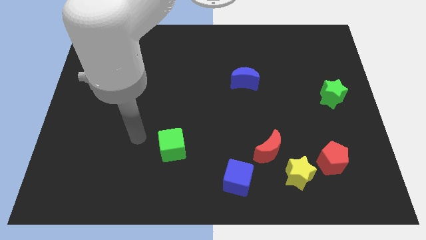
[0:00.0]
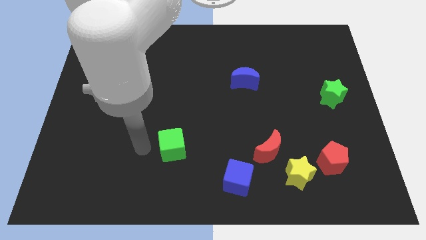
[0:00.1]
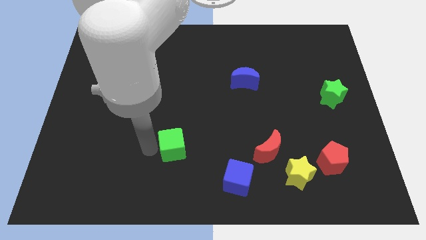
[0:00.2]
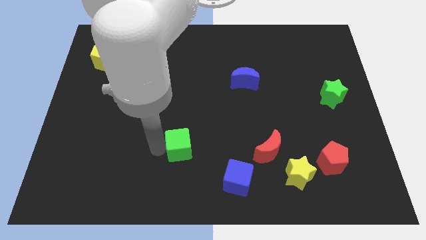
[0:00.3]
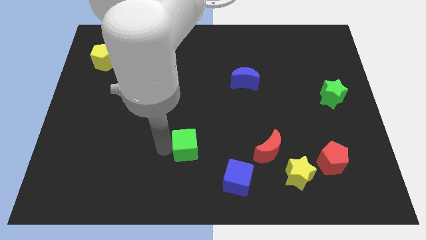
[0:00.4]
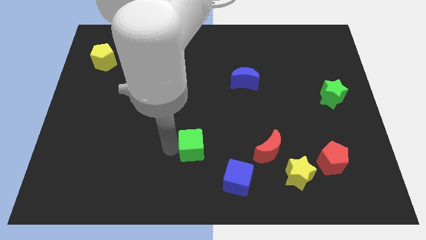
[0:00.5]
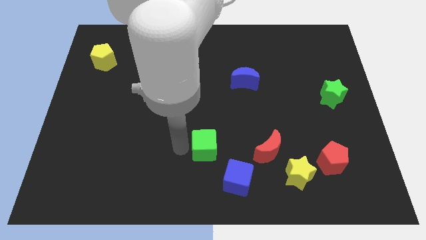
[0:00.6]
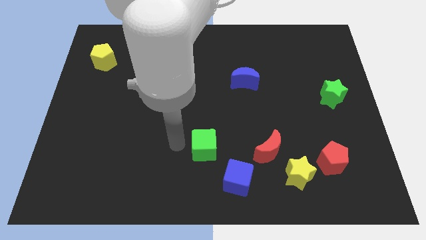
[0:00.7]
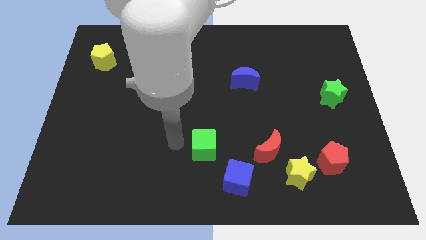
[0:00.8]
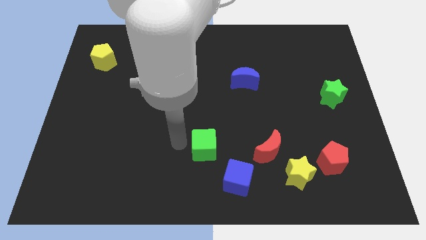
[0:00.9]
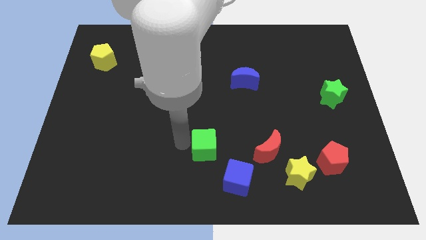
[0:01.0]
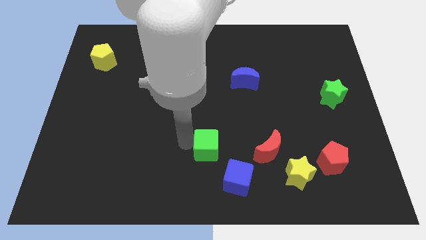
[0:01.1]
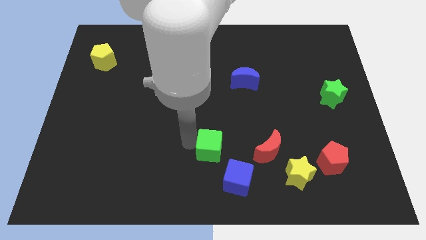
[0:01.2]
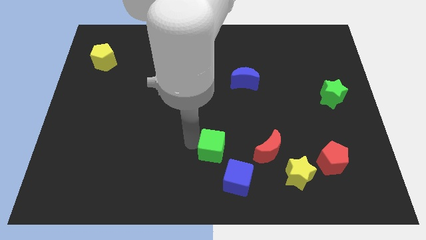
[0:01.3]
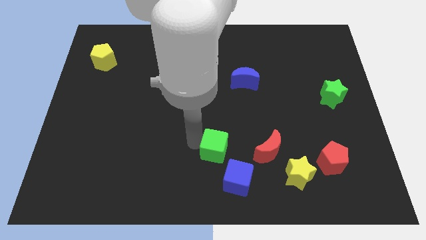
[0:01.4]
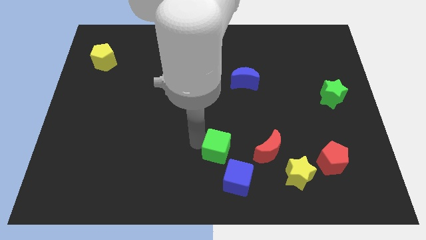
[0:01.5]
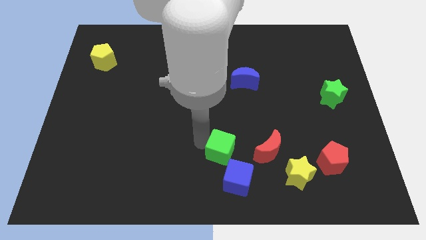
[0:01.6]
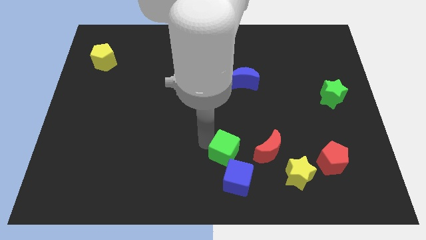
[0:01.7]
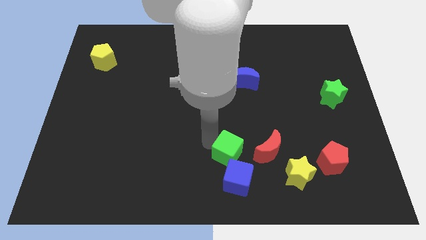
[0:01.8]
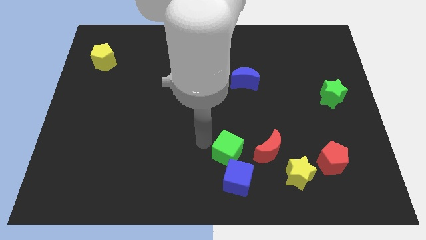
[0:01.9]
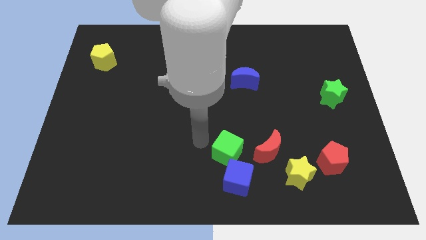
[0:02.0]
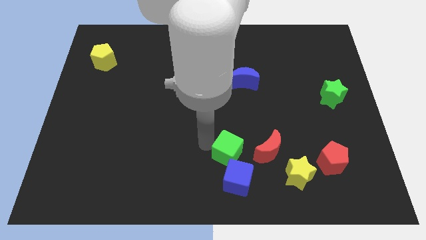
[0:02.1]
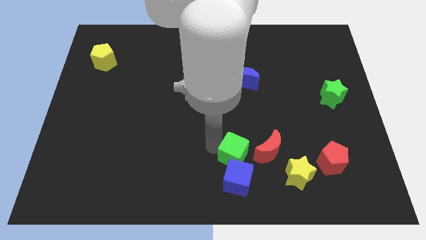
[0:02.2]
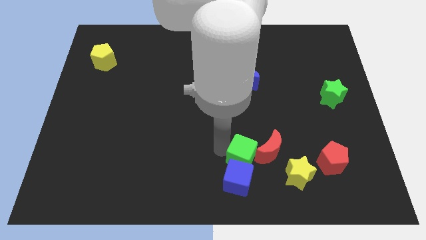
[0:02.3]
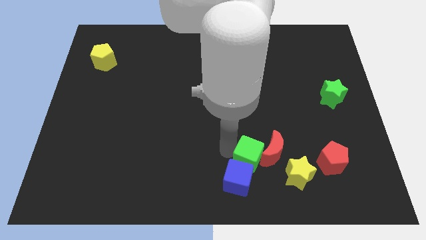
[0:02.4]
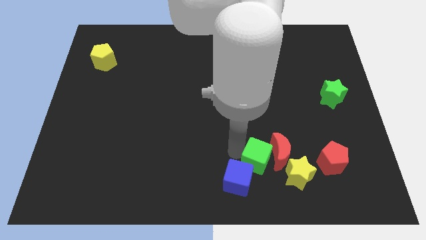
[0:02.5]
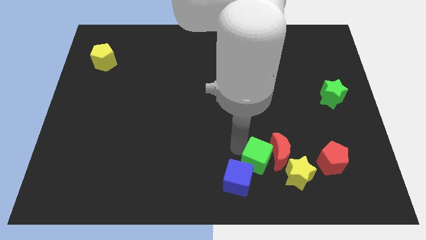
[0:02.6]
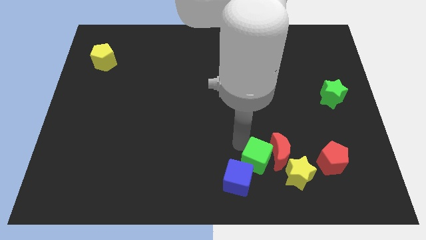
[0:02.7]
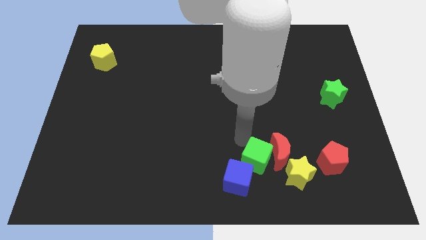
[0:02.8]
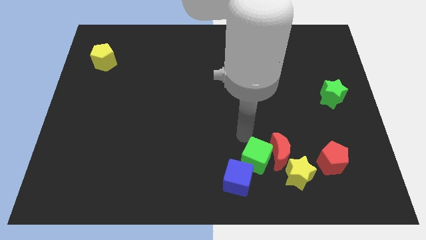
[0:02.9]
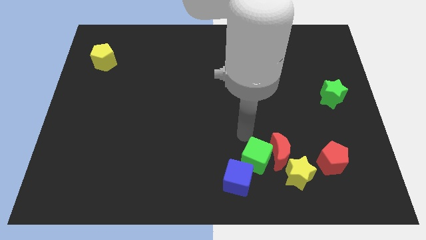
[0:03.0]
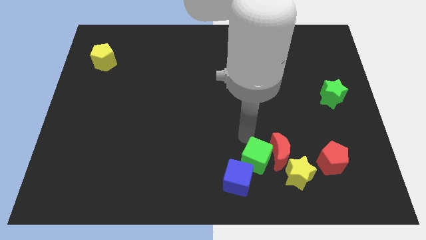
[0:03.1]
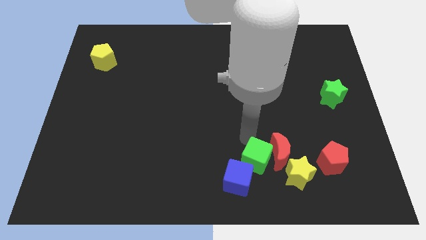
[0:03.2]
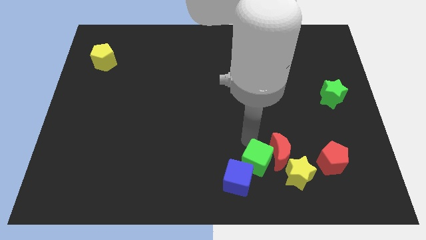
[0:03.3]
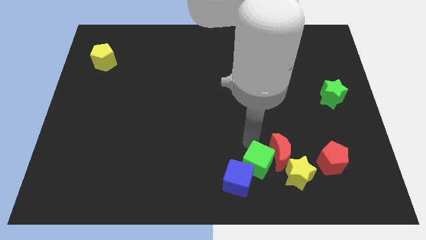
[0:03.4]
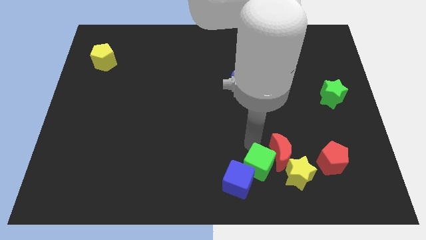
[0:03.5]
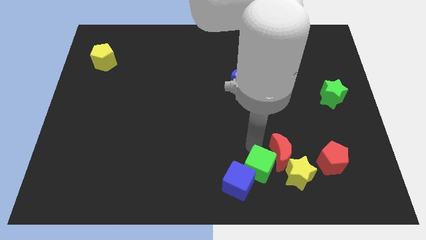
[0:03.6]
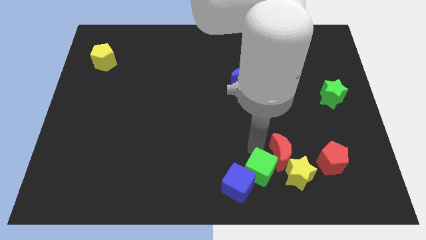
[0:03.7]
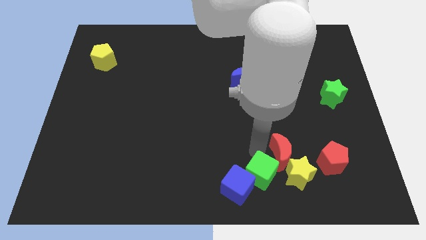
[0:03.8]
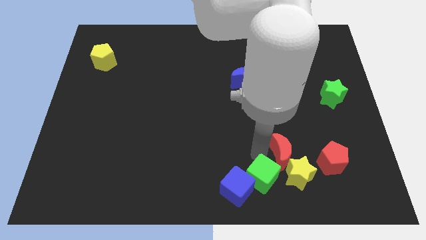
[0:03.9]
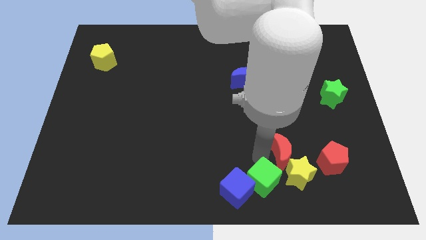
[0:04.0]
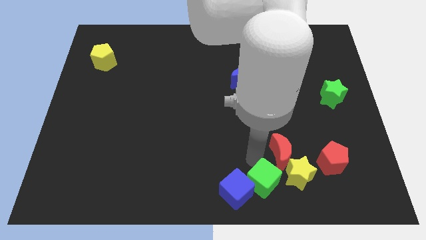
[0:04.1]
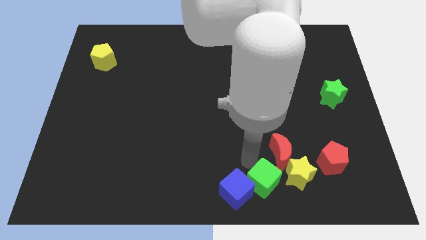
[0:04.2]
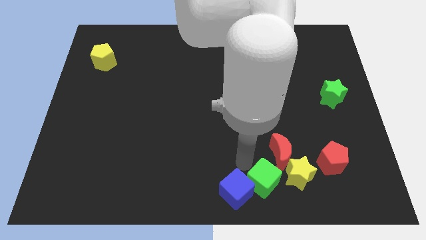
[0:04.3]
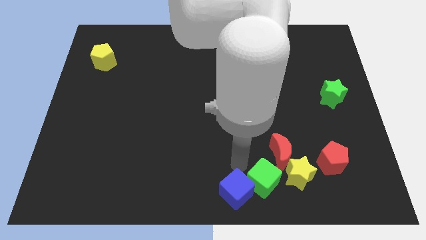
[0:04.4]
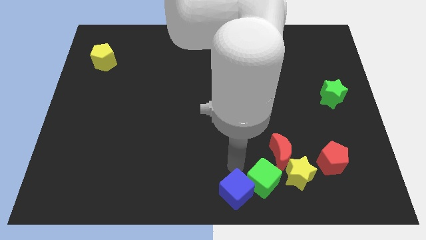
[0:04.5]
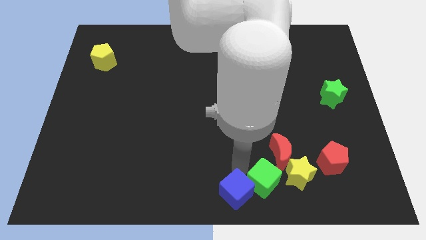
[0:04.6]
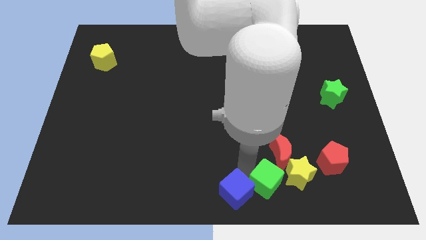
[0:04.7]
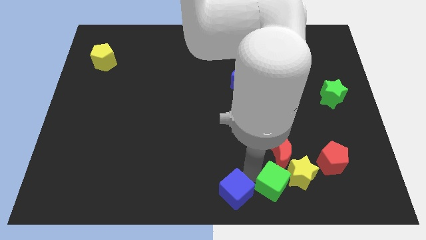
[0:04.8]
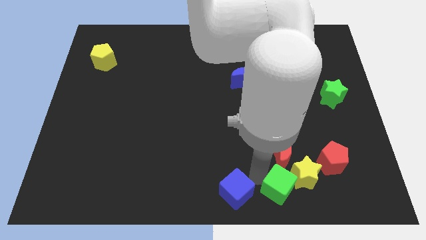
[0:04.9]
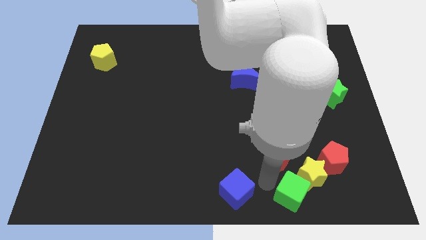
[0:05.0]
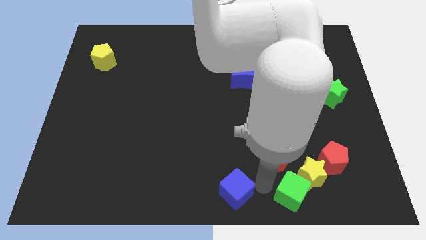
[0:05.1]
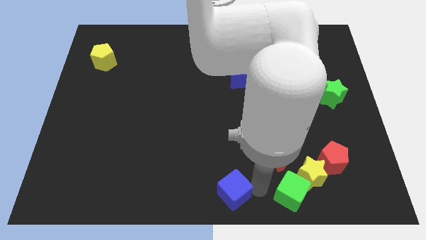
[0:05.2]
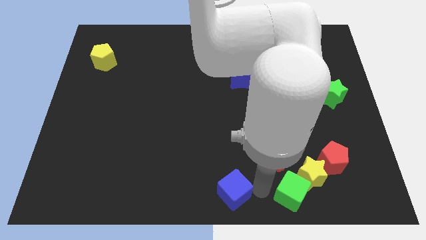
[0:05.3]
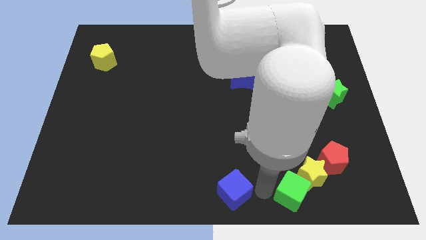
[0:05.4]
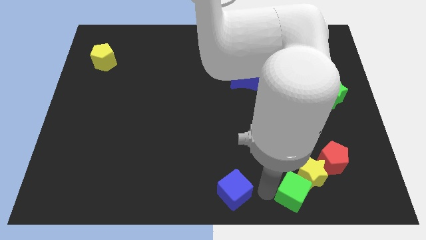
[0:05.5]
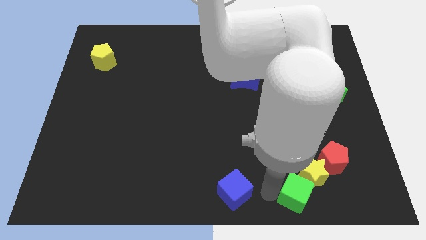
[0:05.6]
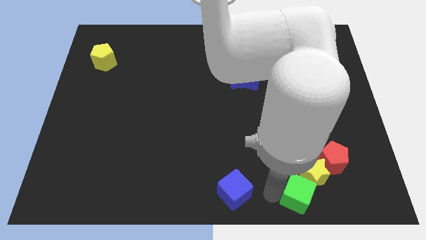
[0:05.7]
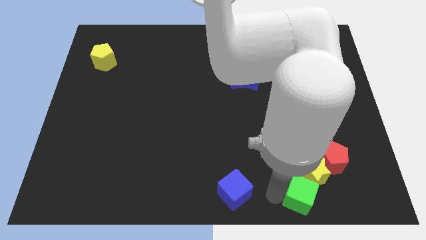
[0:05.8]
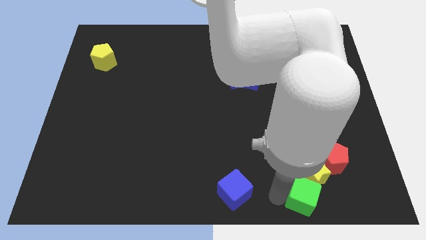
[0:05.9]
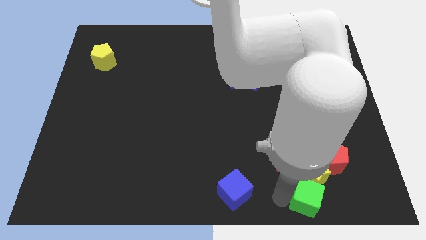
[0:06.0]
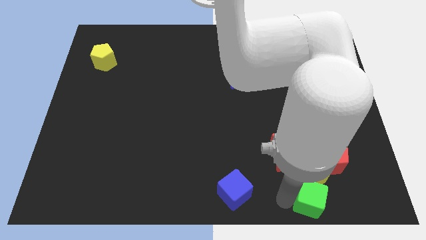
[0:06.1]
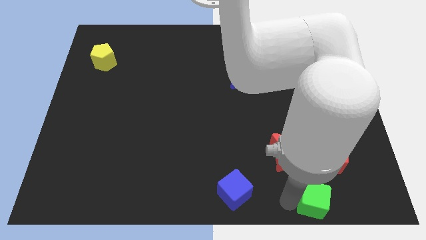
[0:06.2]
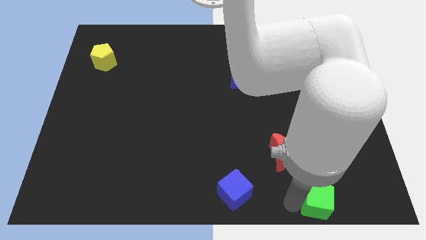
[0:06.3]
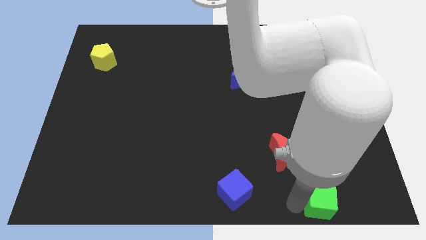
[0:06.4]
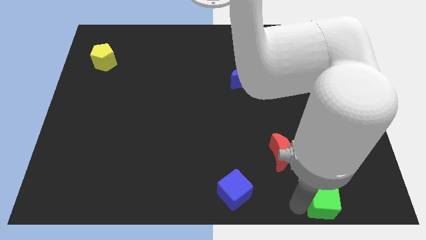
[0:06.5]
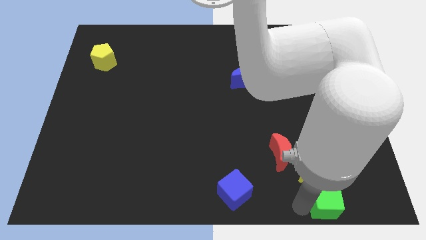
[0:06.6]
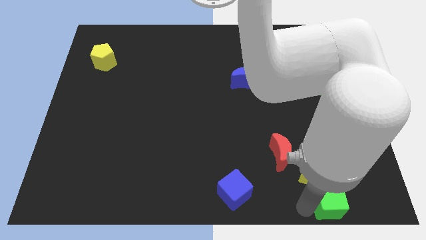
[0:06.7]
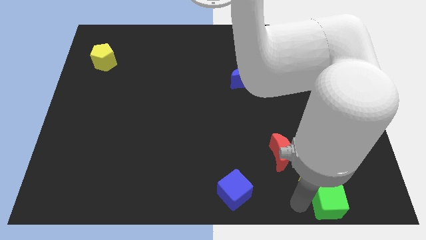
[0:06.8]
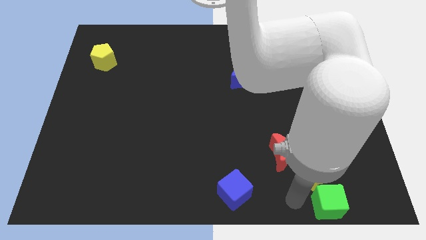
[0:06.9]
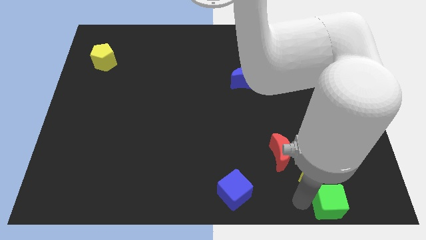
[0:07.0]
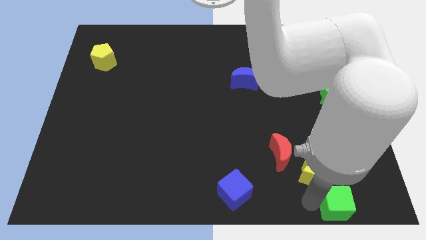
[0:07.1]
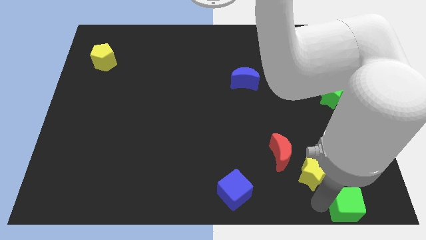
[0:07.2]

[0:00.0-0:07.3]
move the green cube to the bottom right corner
